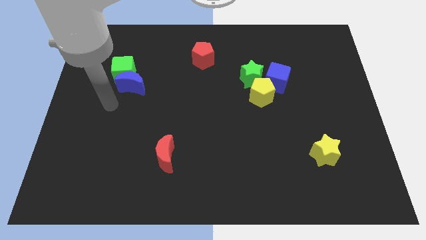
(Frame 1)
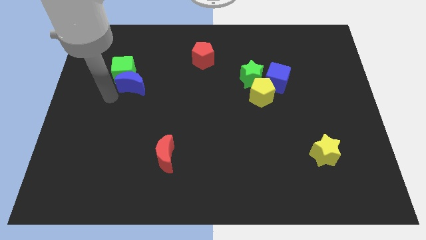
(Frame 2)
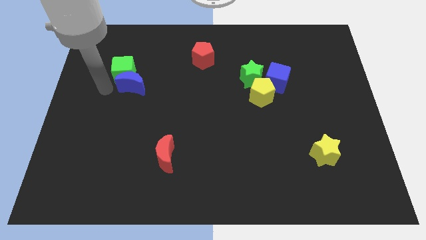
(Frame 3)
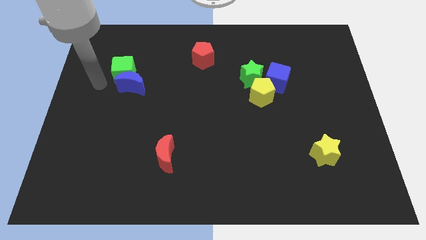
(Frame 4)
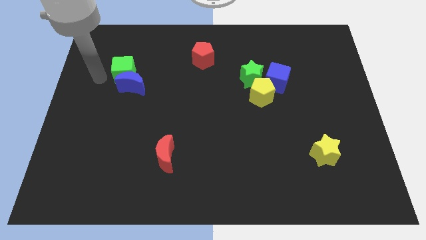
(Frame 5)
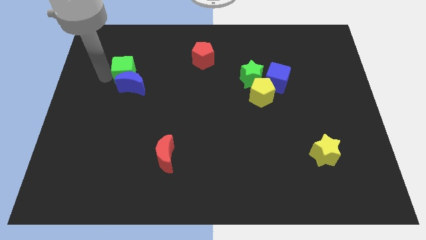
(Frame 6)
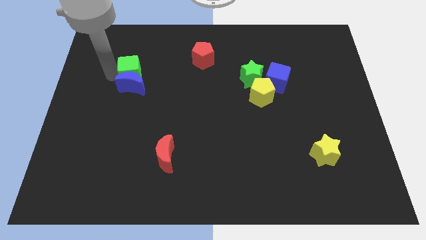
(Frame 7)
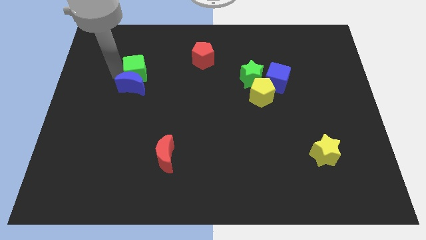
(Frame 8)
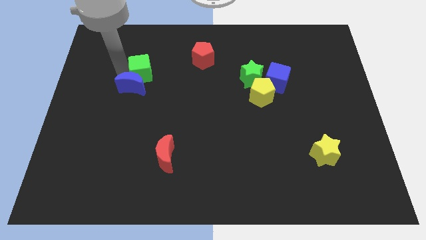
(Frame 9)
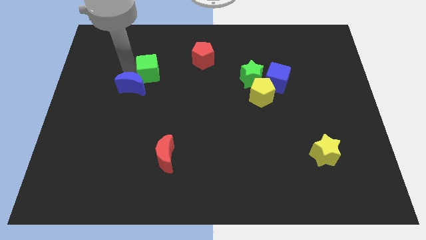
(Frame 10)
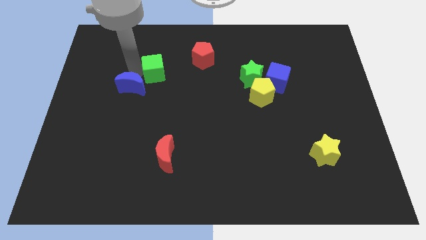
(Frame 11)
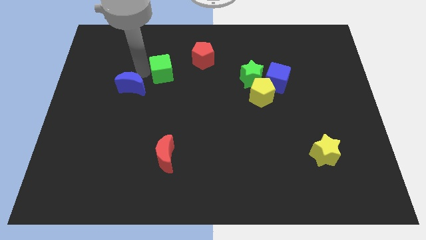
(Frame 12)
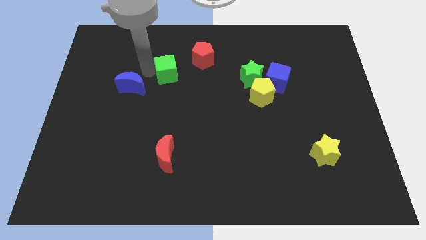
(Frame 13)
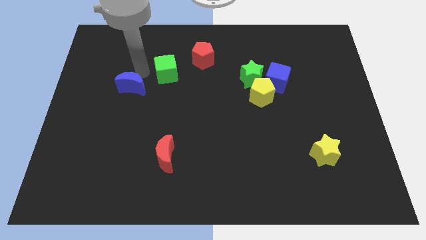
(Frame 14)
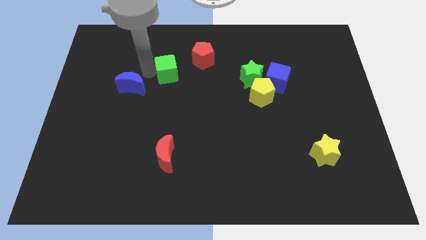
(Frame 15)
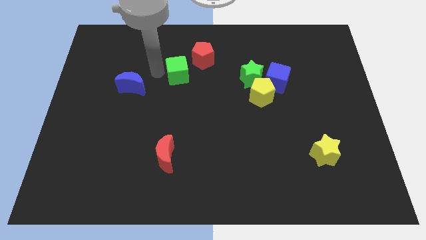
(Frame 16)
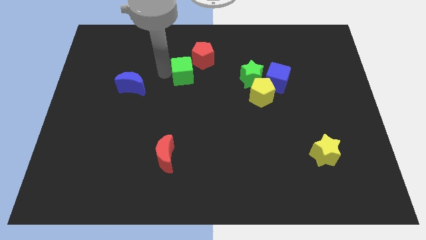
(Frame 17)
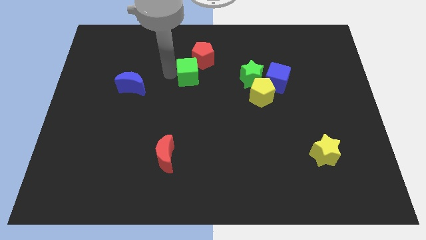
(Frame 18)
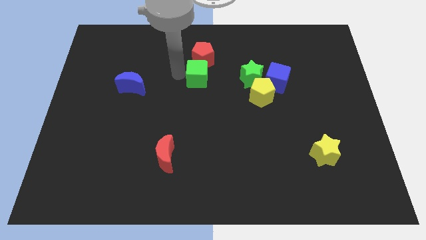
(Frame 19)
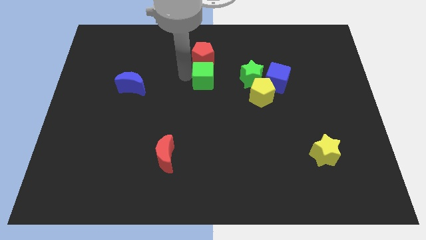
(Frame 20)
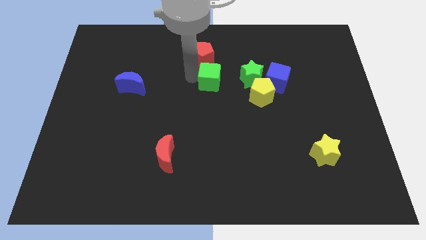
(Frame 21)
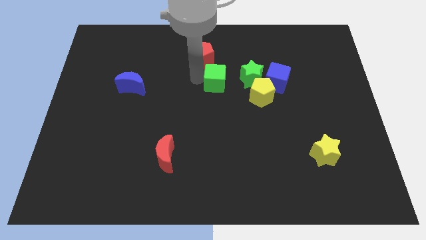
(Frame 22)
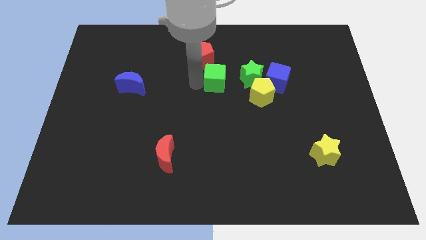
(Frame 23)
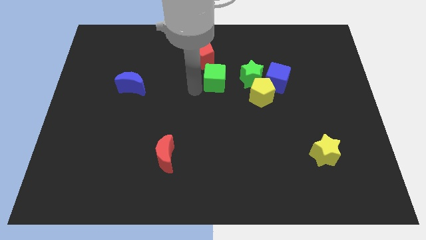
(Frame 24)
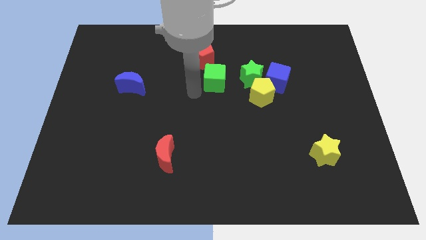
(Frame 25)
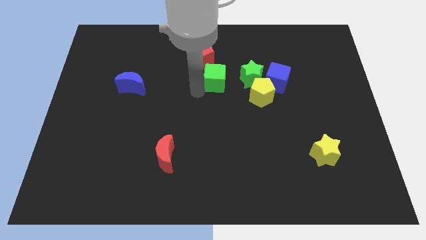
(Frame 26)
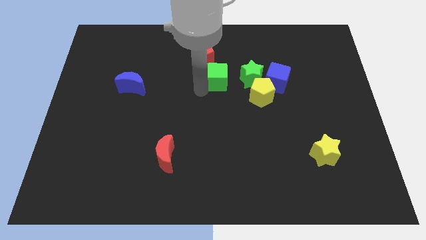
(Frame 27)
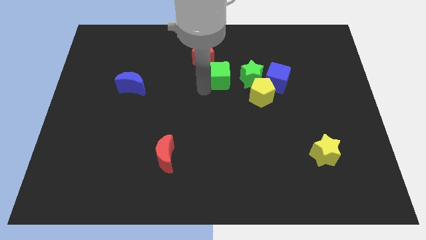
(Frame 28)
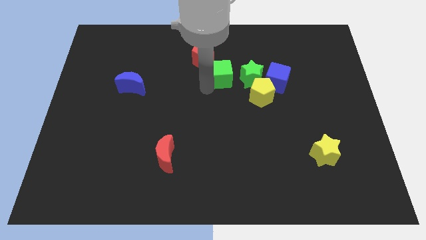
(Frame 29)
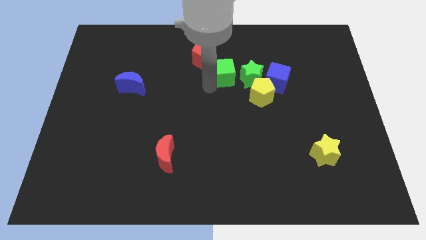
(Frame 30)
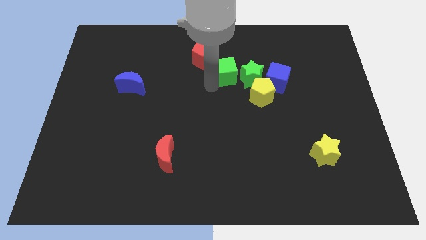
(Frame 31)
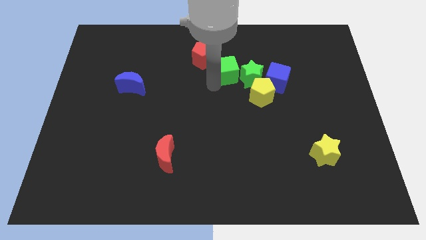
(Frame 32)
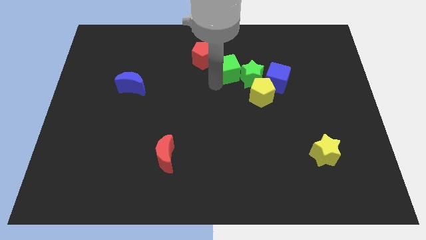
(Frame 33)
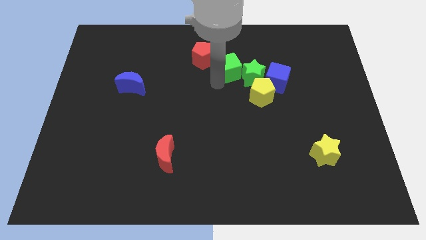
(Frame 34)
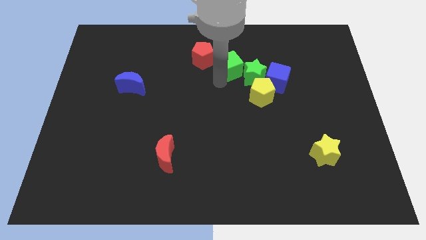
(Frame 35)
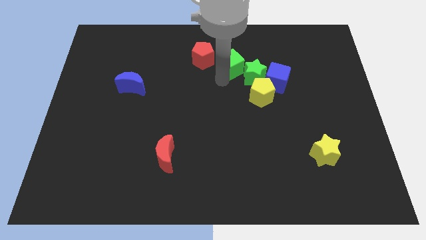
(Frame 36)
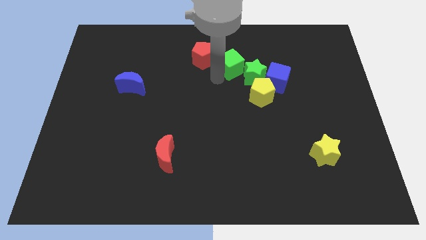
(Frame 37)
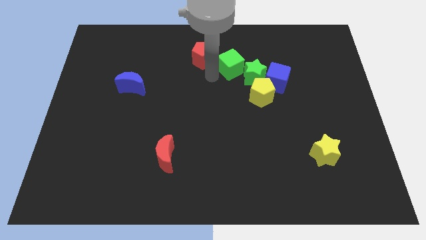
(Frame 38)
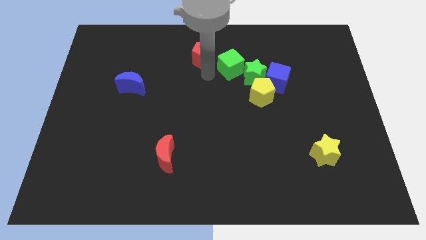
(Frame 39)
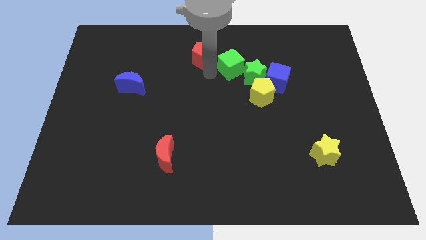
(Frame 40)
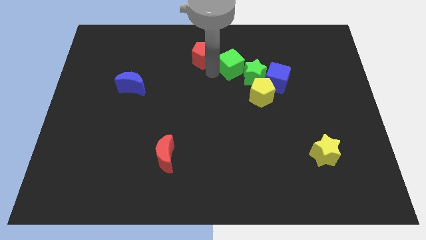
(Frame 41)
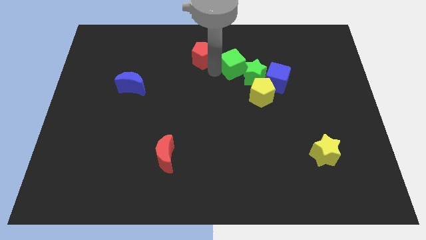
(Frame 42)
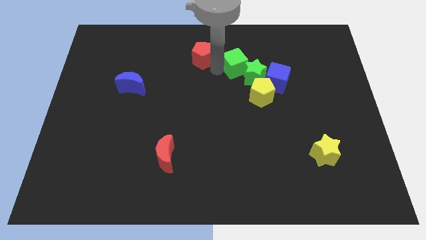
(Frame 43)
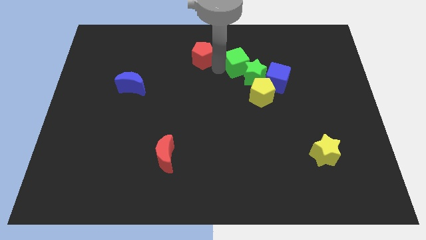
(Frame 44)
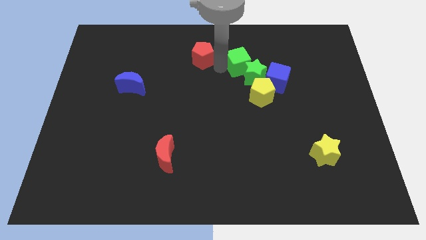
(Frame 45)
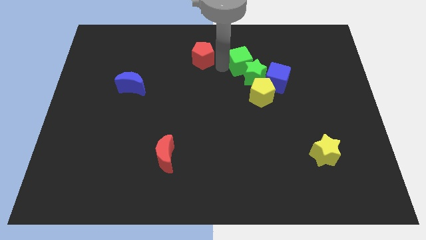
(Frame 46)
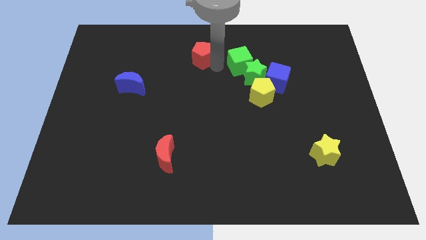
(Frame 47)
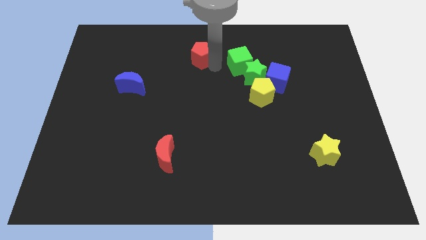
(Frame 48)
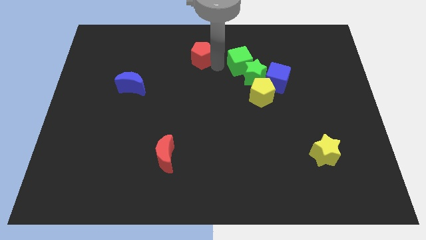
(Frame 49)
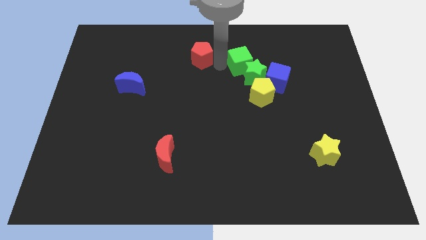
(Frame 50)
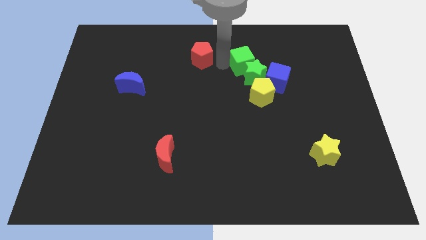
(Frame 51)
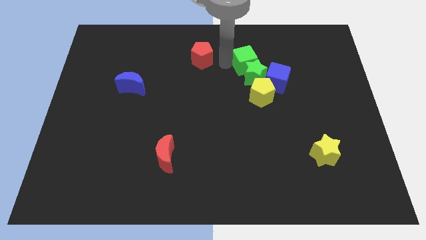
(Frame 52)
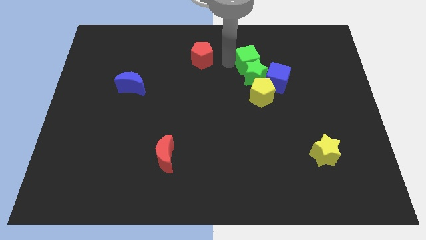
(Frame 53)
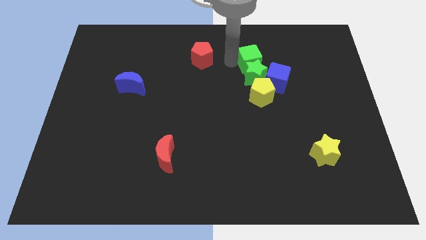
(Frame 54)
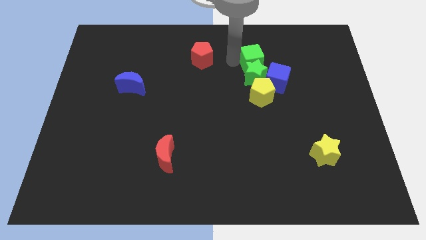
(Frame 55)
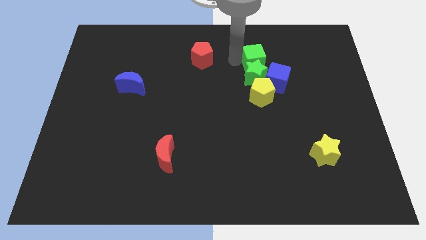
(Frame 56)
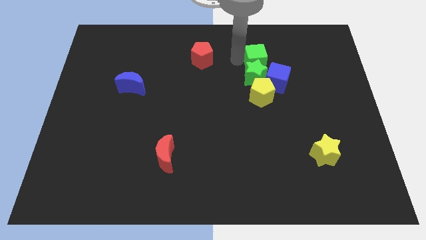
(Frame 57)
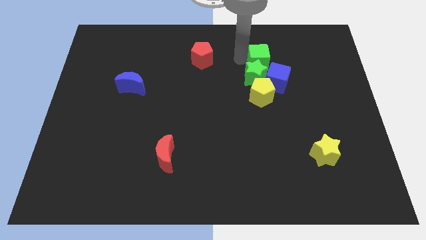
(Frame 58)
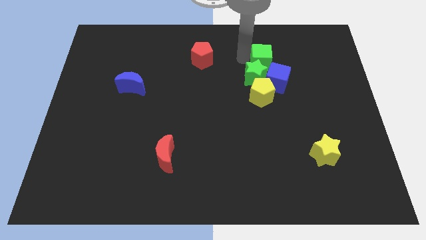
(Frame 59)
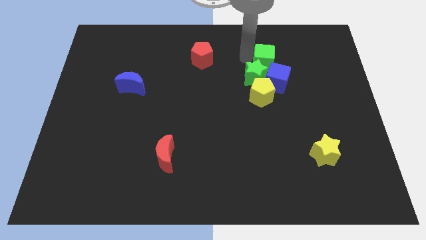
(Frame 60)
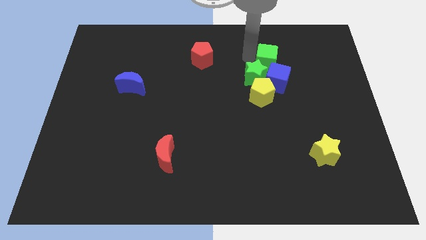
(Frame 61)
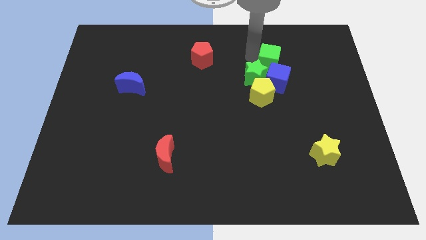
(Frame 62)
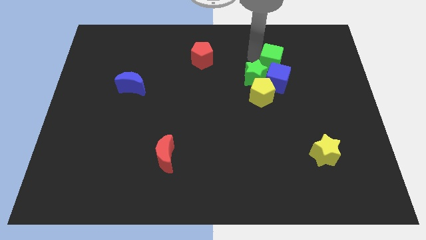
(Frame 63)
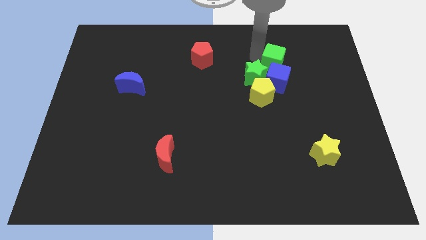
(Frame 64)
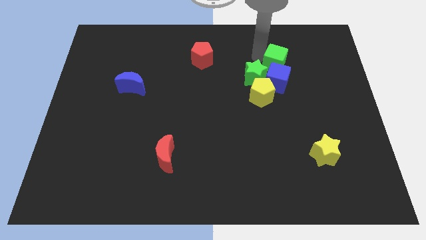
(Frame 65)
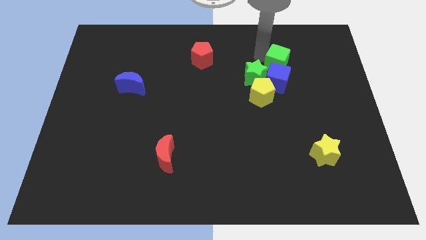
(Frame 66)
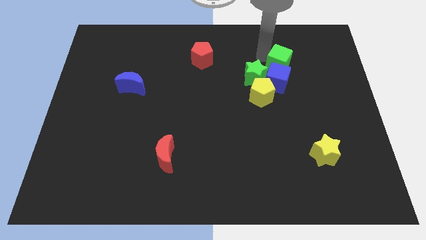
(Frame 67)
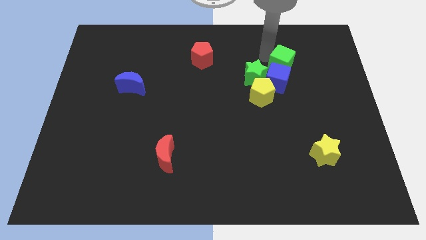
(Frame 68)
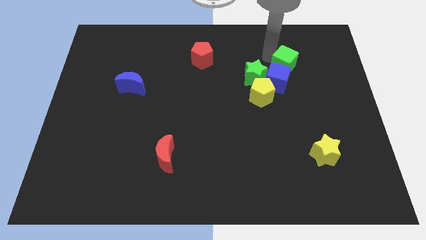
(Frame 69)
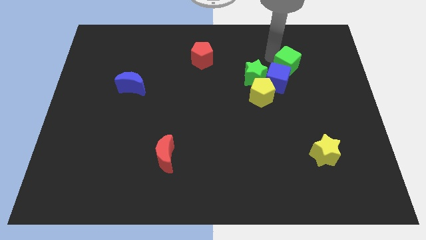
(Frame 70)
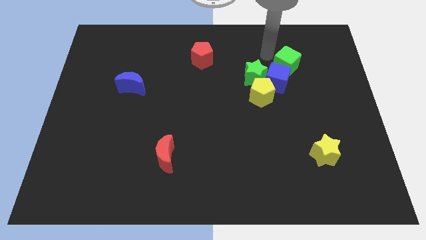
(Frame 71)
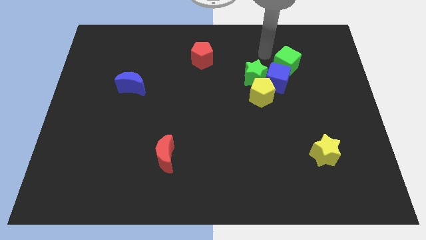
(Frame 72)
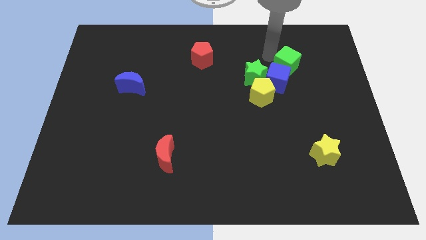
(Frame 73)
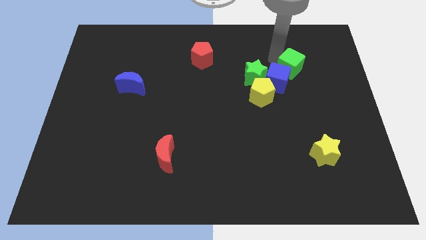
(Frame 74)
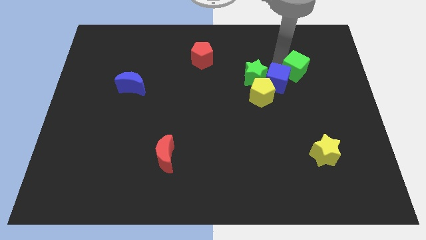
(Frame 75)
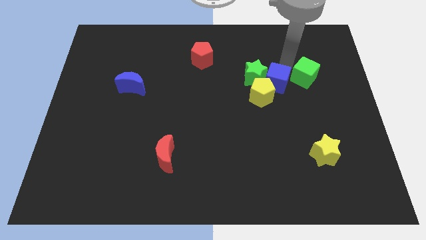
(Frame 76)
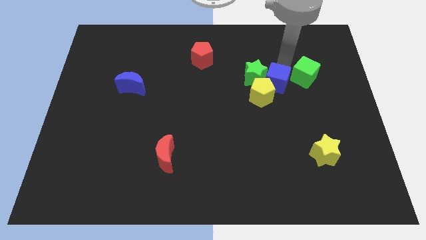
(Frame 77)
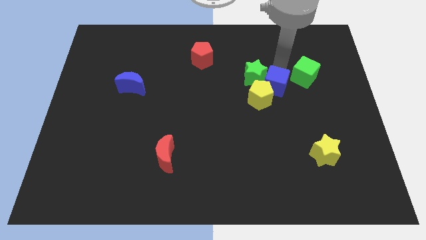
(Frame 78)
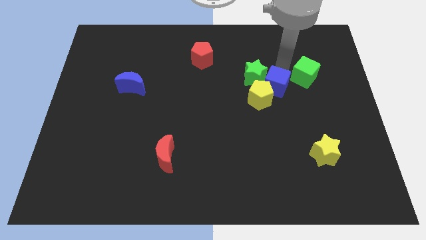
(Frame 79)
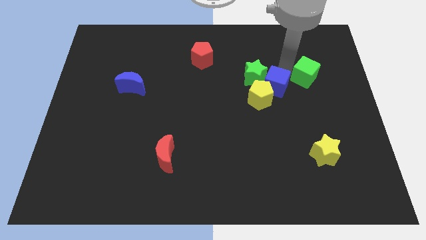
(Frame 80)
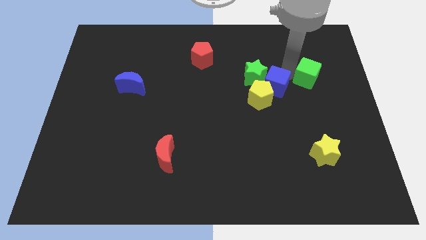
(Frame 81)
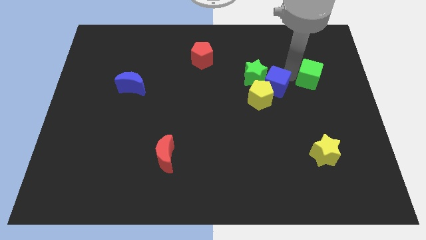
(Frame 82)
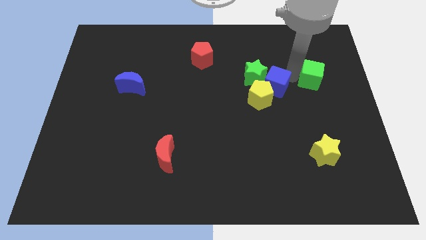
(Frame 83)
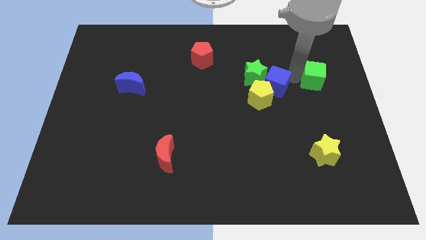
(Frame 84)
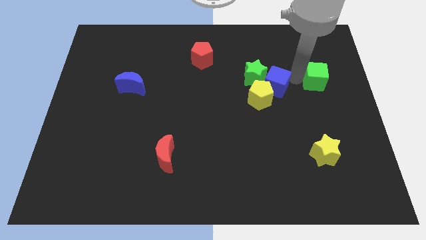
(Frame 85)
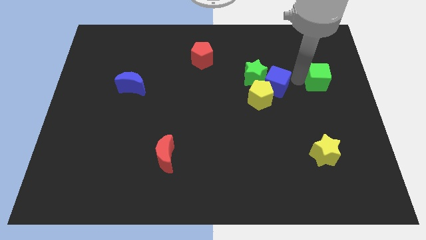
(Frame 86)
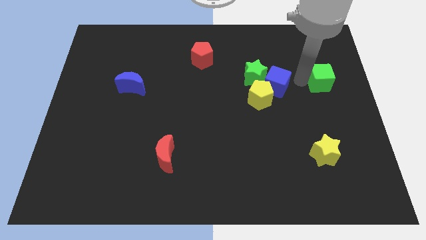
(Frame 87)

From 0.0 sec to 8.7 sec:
move the green cube to the right side of the board
